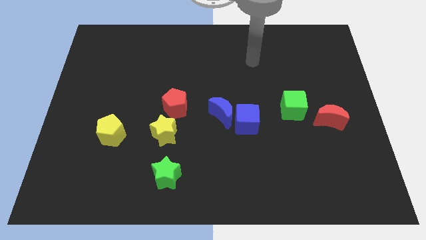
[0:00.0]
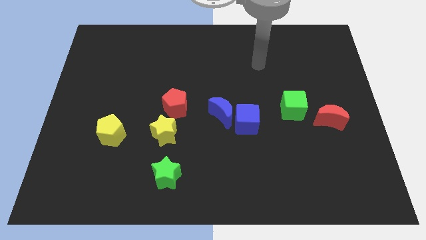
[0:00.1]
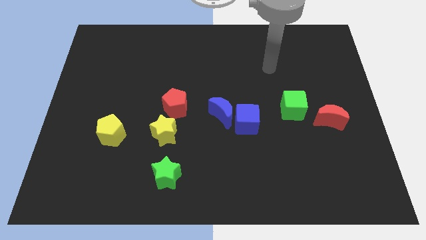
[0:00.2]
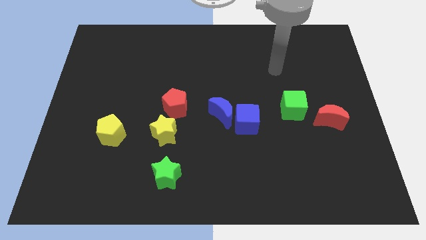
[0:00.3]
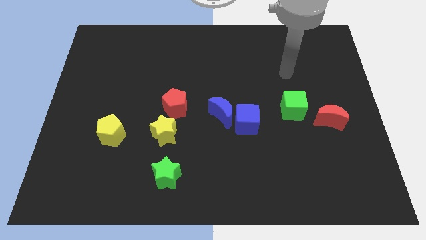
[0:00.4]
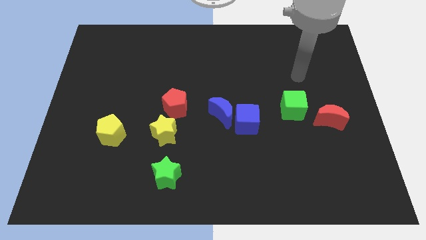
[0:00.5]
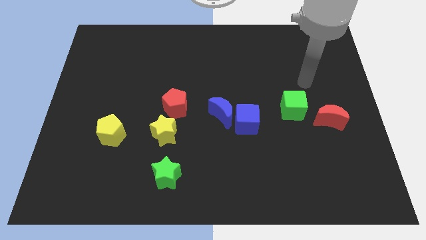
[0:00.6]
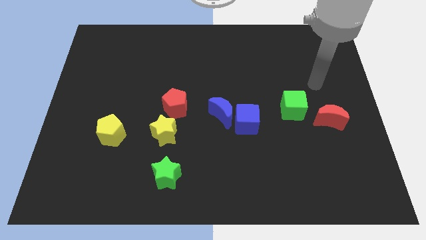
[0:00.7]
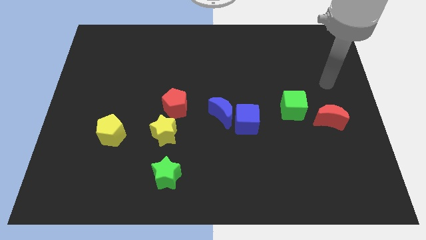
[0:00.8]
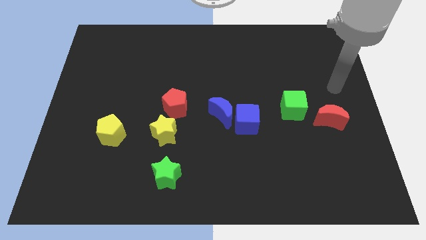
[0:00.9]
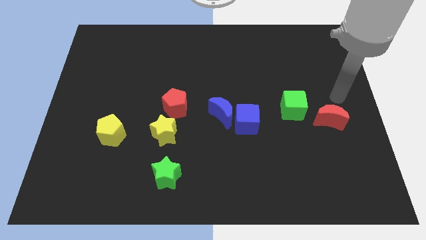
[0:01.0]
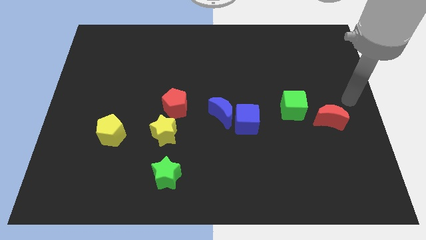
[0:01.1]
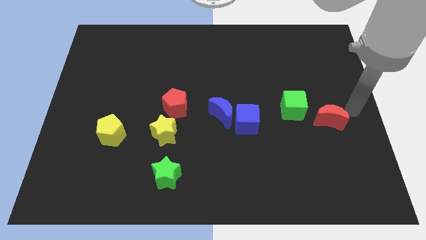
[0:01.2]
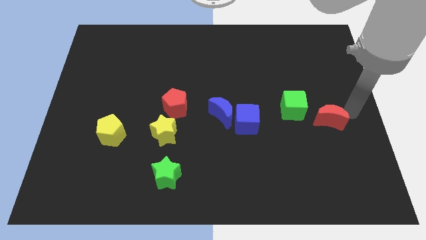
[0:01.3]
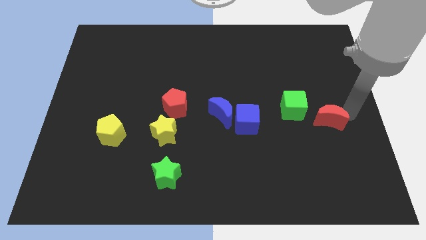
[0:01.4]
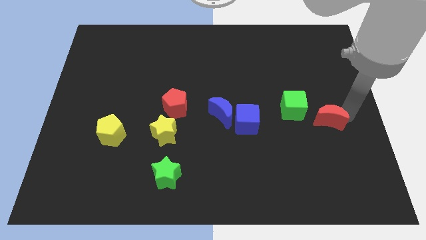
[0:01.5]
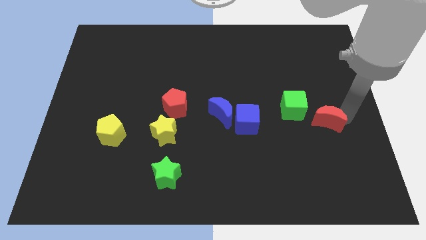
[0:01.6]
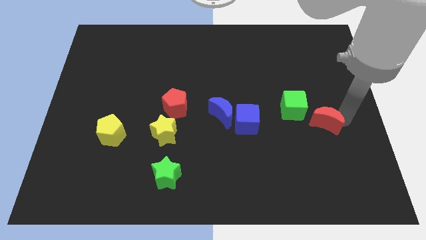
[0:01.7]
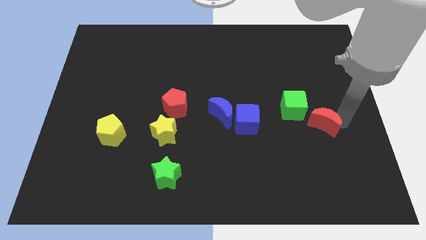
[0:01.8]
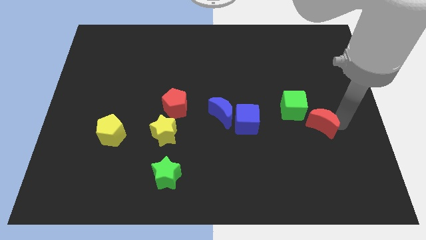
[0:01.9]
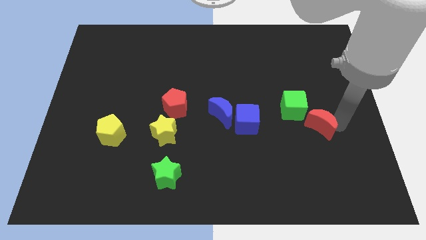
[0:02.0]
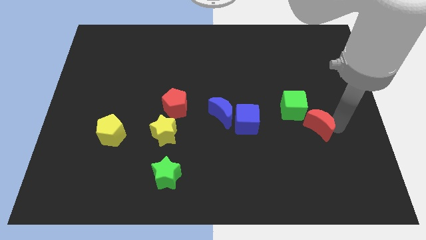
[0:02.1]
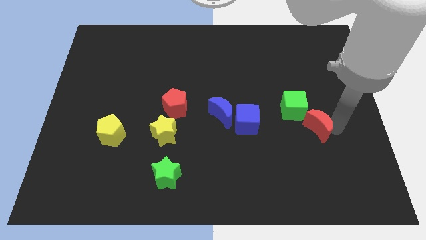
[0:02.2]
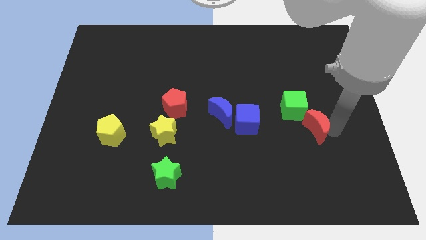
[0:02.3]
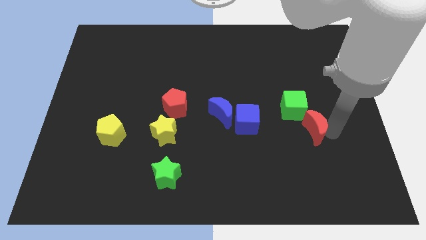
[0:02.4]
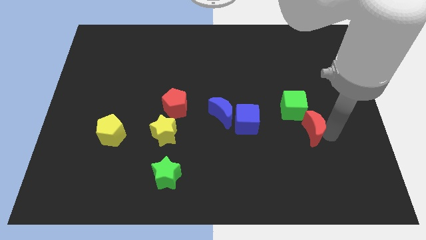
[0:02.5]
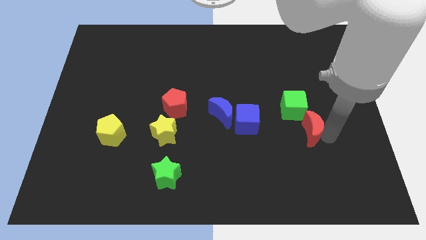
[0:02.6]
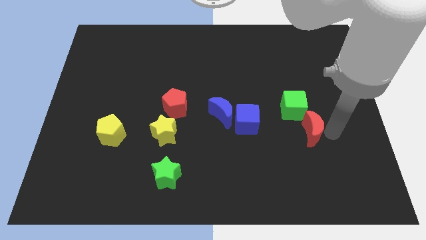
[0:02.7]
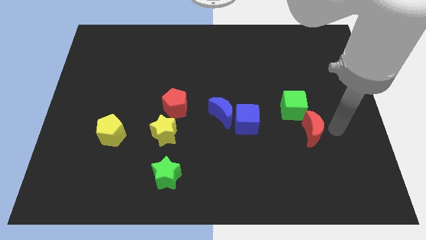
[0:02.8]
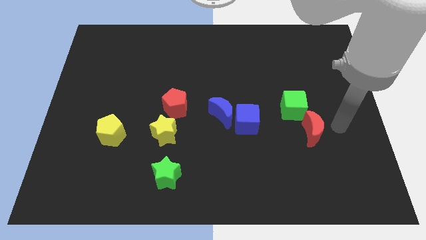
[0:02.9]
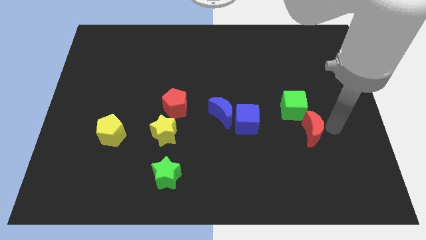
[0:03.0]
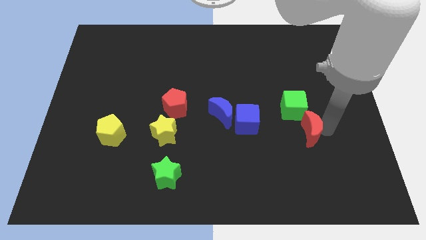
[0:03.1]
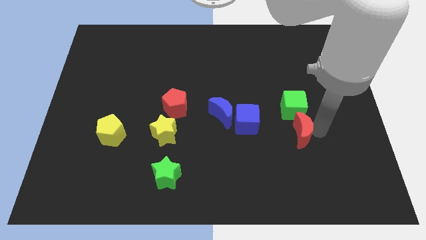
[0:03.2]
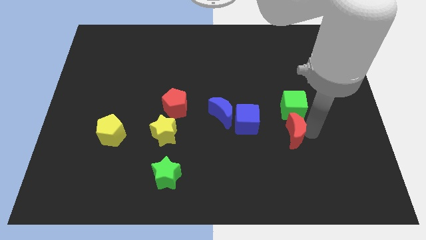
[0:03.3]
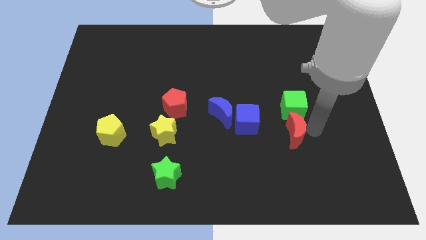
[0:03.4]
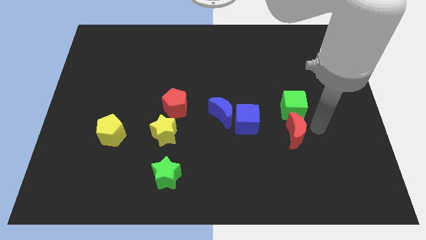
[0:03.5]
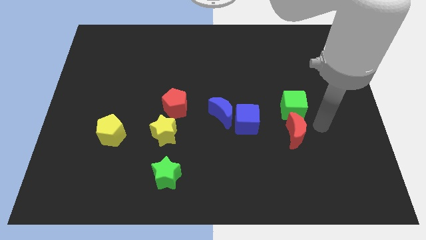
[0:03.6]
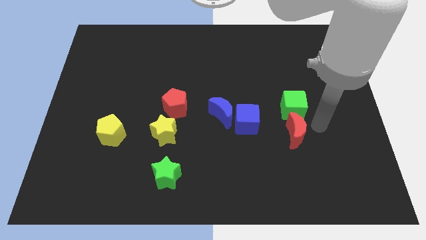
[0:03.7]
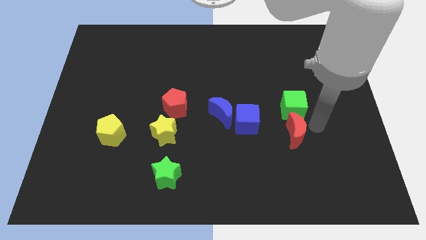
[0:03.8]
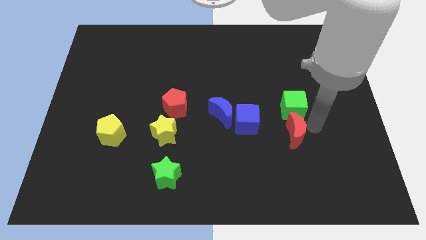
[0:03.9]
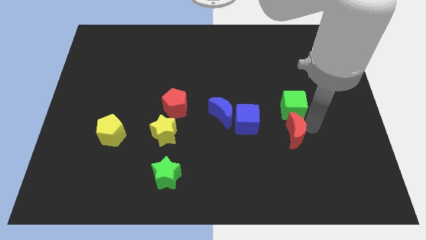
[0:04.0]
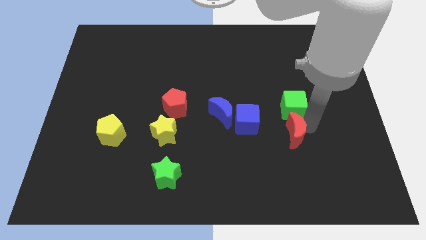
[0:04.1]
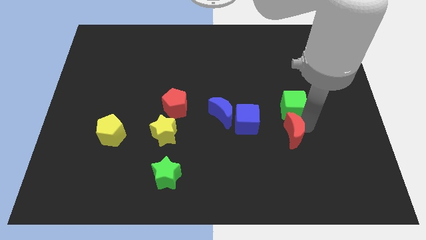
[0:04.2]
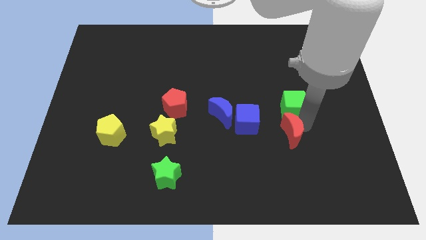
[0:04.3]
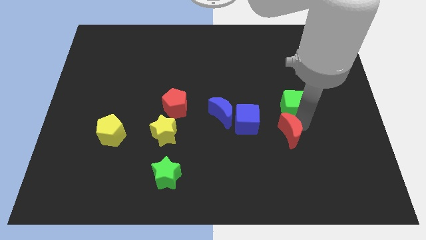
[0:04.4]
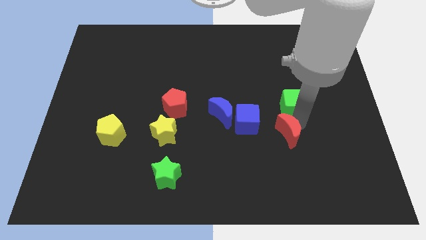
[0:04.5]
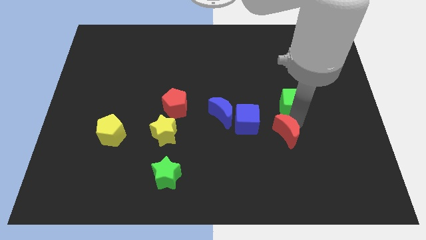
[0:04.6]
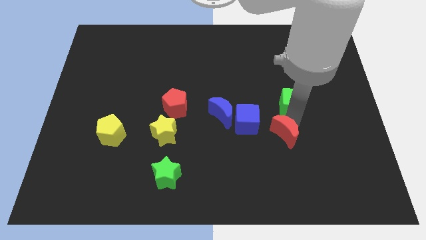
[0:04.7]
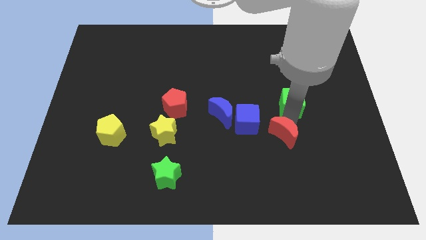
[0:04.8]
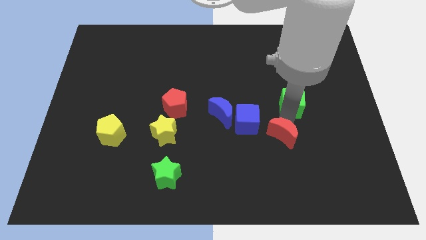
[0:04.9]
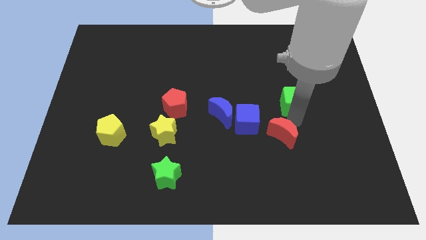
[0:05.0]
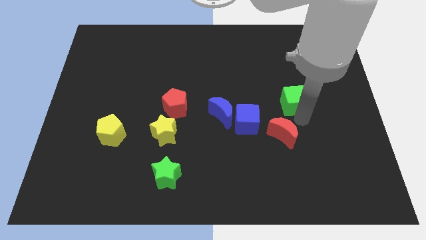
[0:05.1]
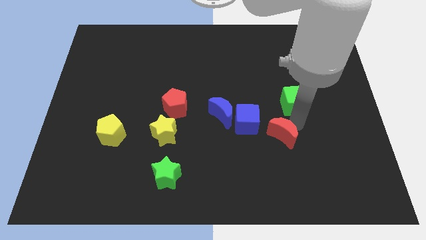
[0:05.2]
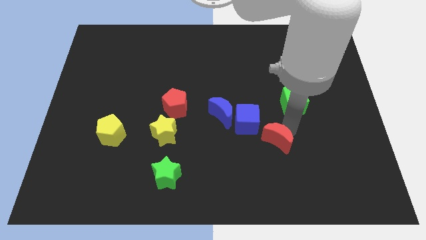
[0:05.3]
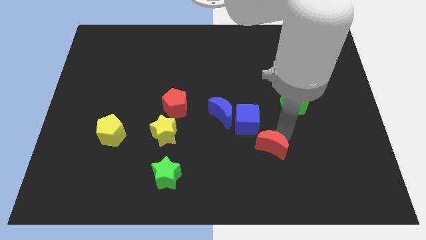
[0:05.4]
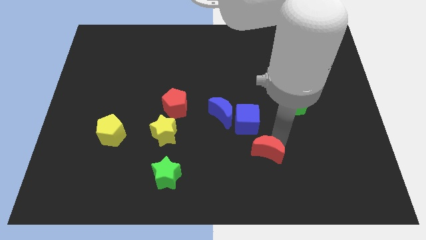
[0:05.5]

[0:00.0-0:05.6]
move the red moon below the blue cube
